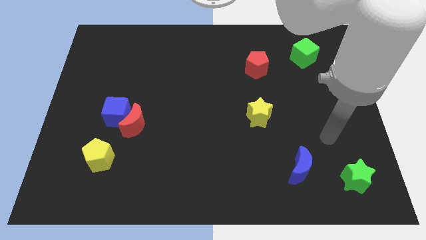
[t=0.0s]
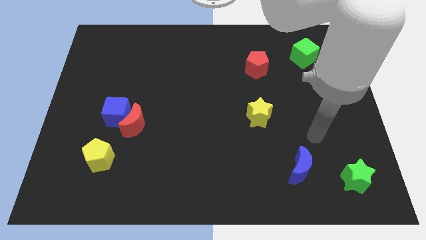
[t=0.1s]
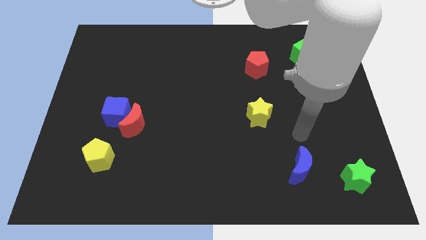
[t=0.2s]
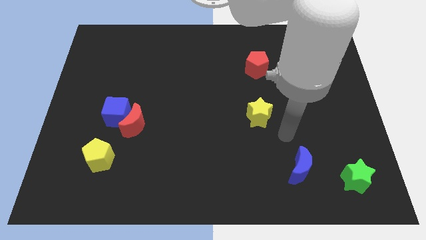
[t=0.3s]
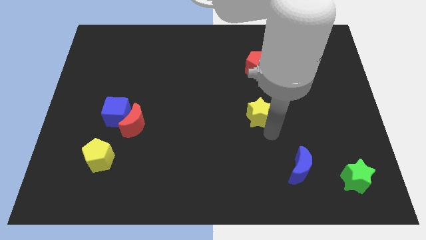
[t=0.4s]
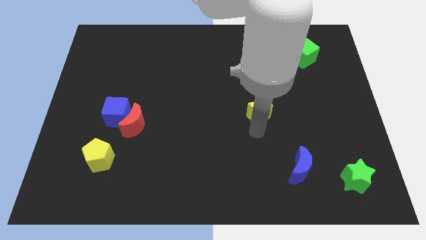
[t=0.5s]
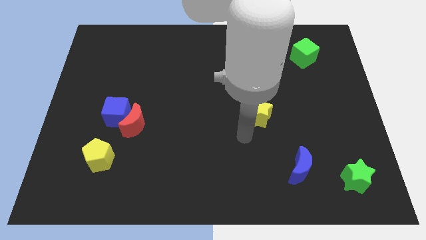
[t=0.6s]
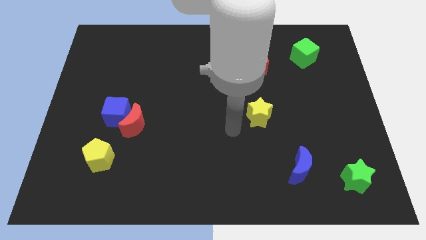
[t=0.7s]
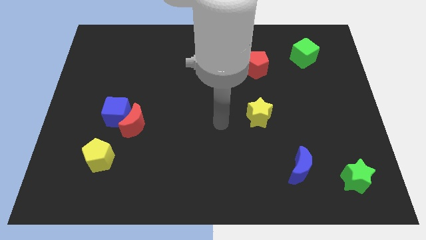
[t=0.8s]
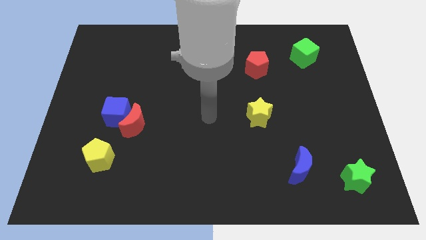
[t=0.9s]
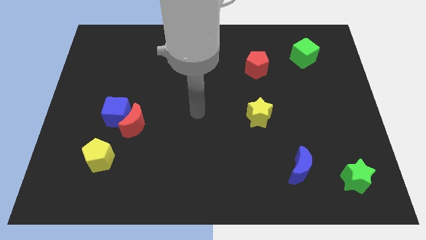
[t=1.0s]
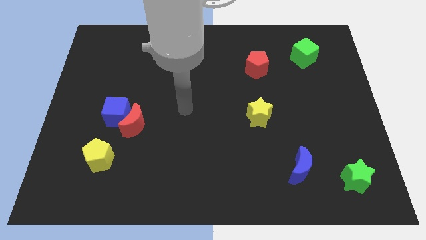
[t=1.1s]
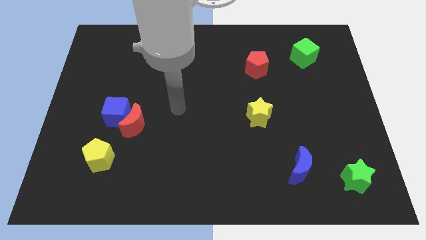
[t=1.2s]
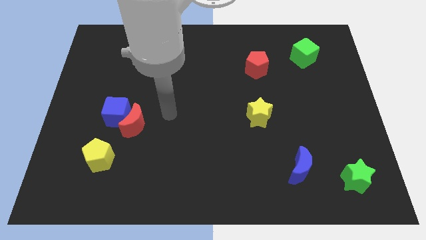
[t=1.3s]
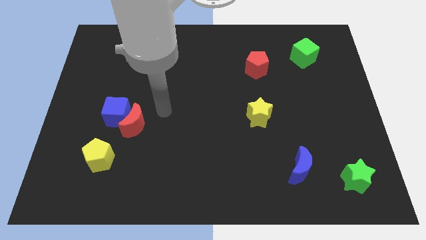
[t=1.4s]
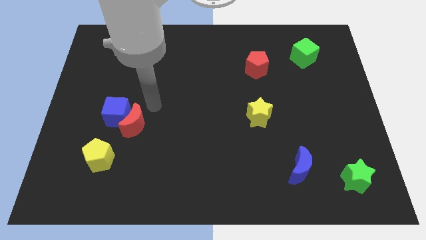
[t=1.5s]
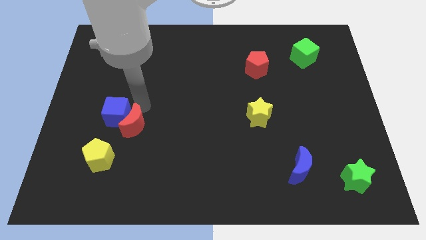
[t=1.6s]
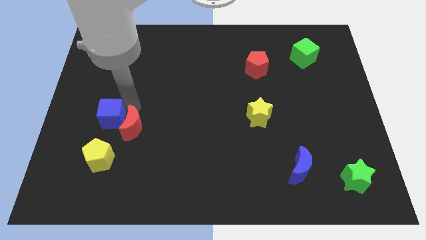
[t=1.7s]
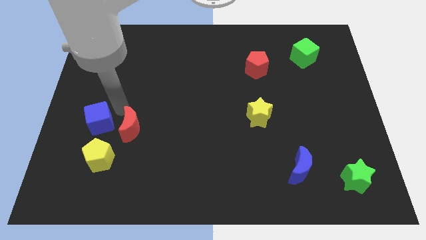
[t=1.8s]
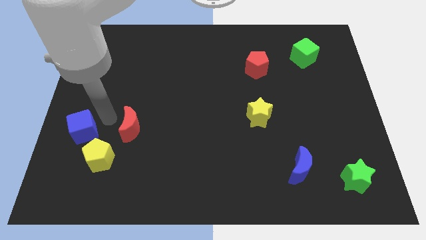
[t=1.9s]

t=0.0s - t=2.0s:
separate the red moon from the blue cube

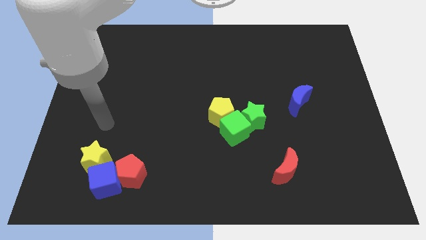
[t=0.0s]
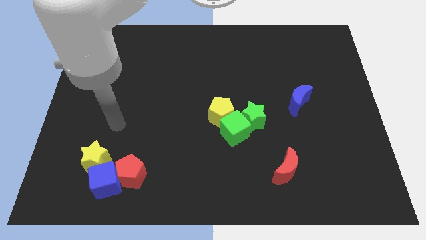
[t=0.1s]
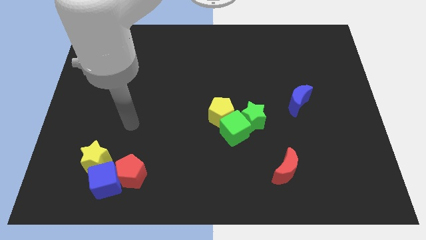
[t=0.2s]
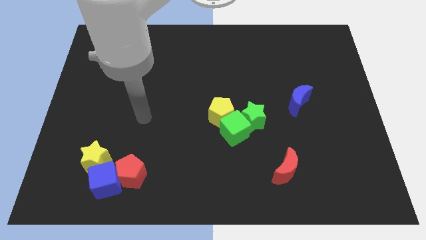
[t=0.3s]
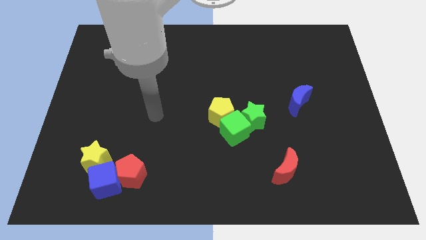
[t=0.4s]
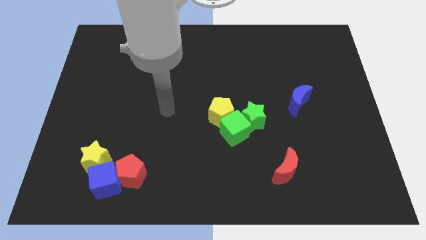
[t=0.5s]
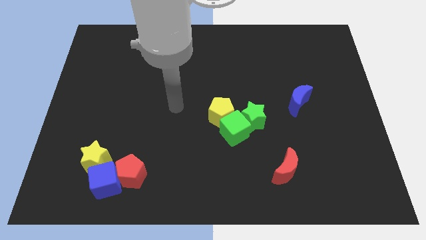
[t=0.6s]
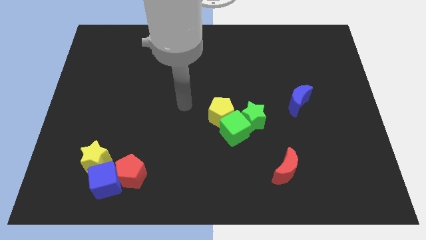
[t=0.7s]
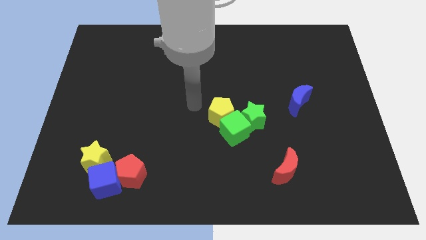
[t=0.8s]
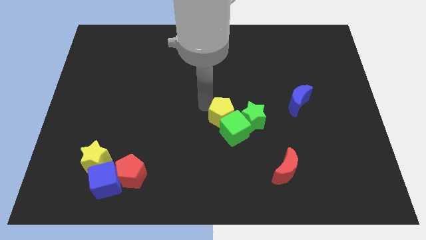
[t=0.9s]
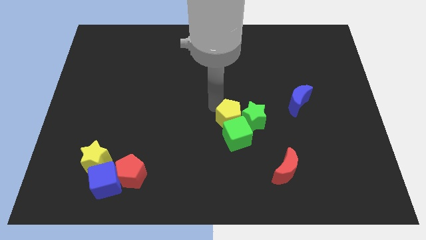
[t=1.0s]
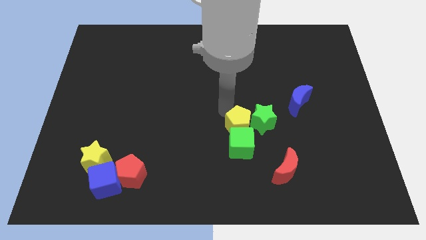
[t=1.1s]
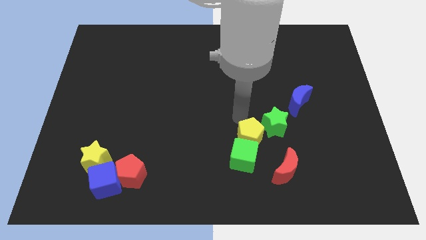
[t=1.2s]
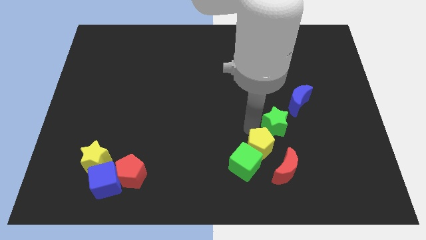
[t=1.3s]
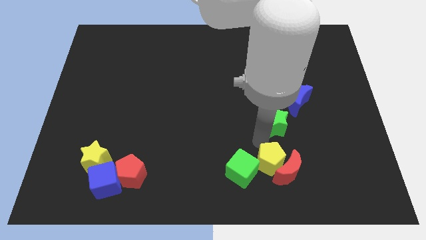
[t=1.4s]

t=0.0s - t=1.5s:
separate the green cube from the green star and yellow pentagon

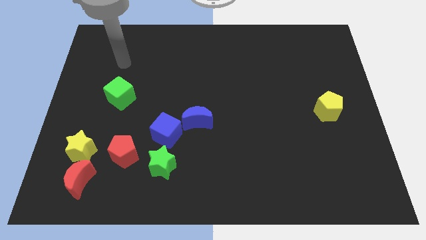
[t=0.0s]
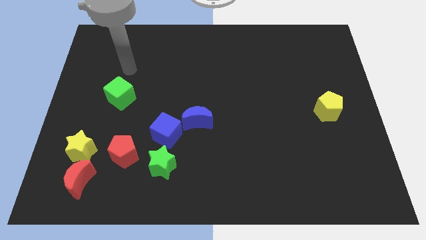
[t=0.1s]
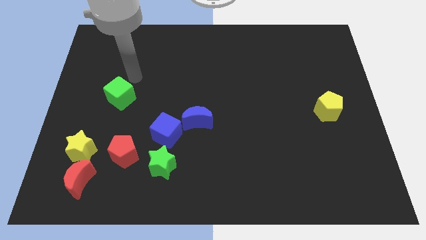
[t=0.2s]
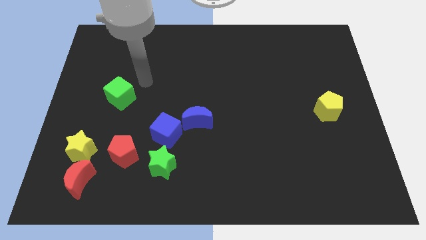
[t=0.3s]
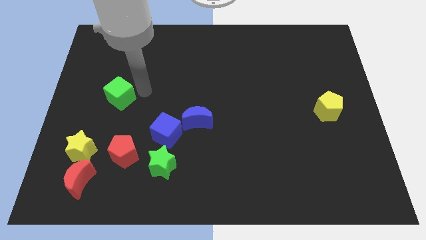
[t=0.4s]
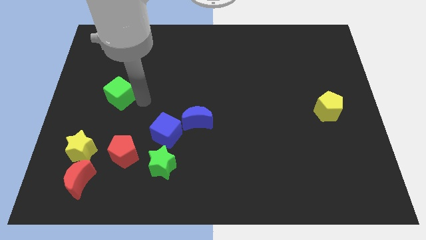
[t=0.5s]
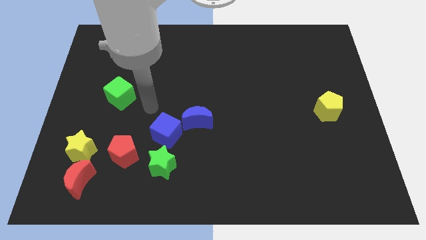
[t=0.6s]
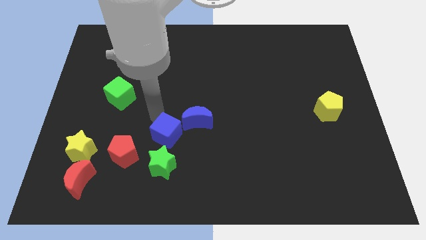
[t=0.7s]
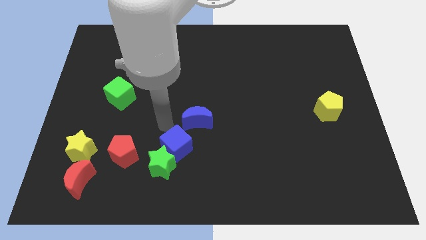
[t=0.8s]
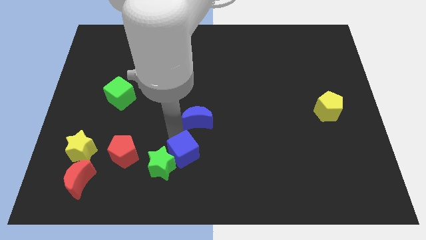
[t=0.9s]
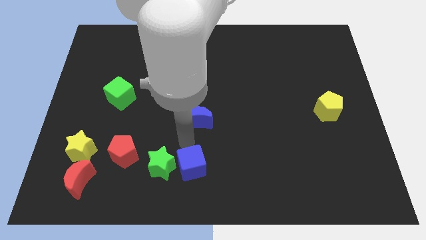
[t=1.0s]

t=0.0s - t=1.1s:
move the blue moon away from the blue cube

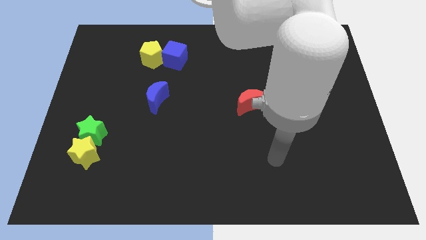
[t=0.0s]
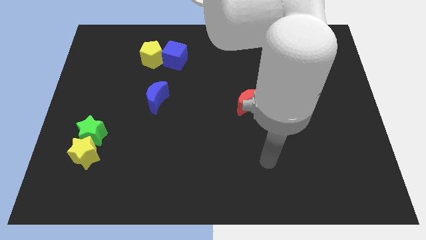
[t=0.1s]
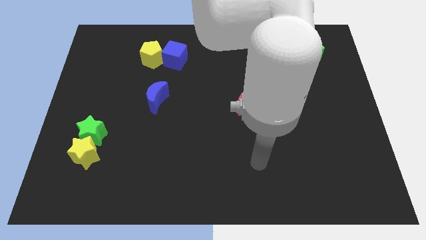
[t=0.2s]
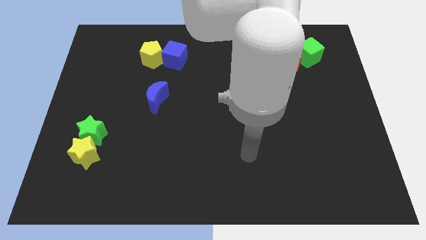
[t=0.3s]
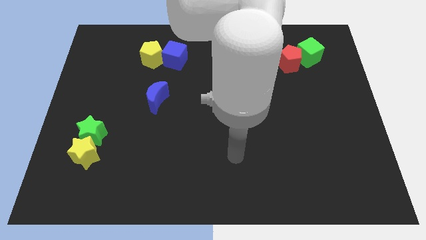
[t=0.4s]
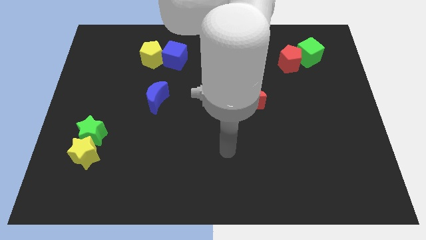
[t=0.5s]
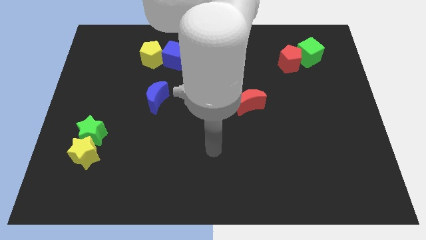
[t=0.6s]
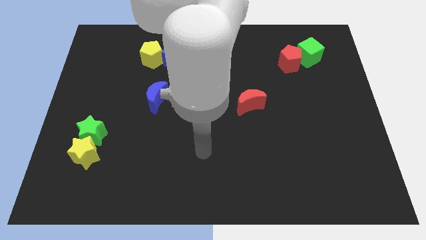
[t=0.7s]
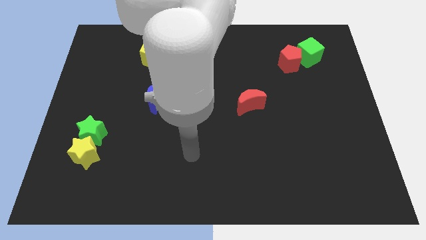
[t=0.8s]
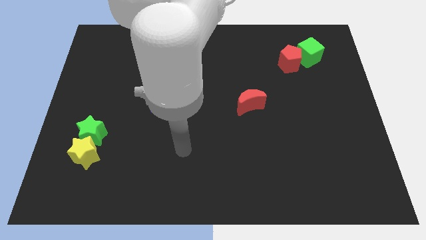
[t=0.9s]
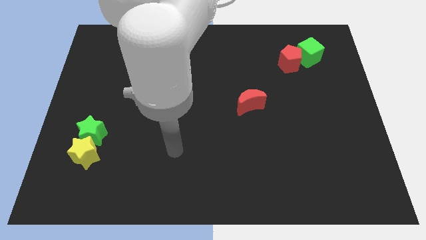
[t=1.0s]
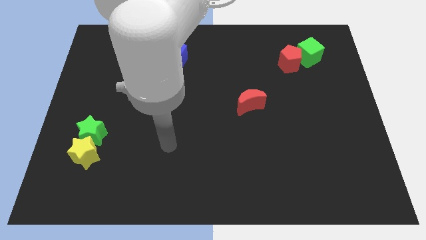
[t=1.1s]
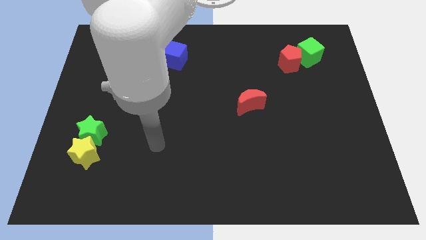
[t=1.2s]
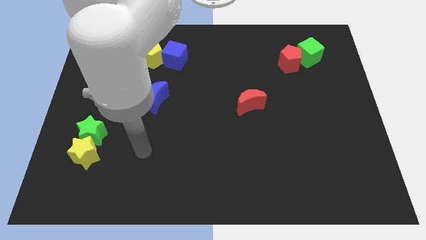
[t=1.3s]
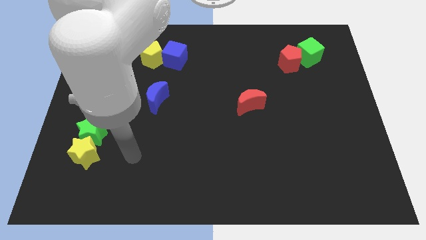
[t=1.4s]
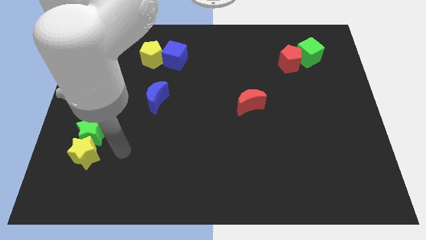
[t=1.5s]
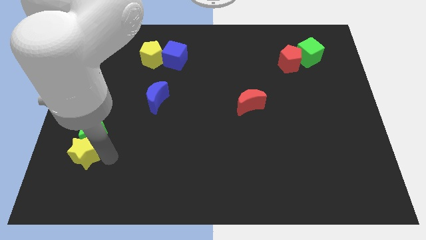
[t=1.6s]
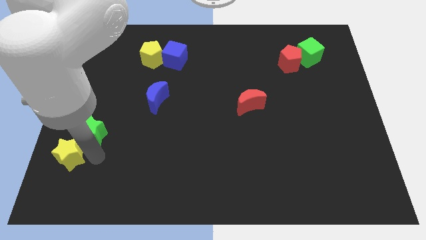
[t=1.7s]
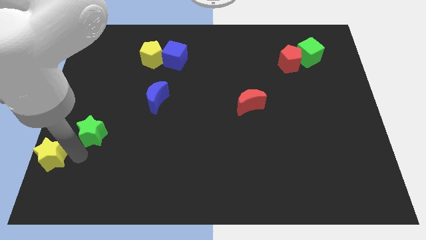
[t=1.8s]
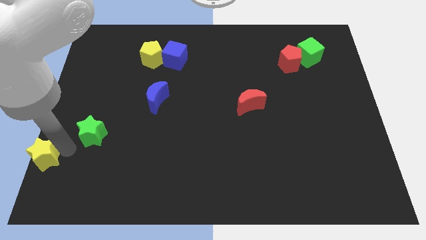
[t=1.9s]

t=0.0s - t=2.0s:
pull the green star apart from the yellow star

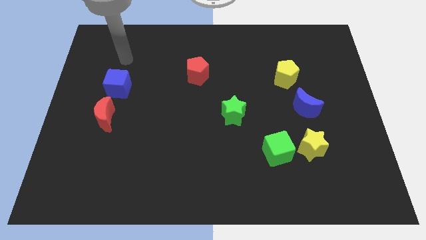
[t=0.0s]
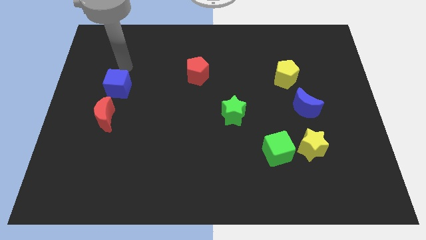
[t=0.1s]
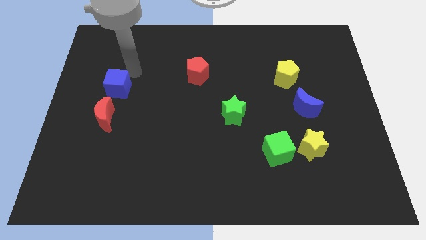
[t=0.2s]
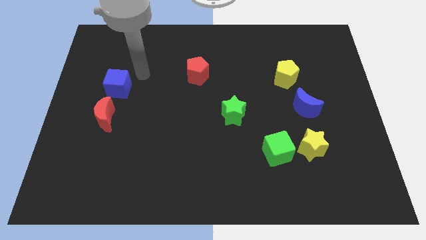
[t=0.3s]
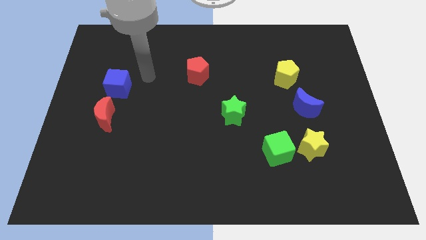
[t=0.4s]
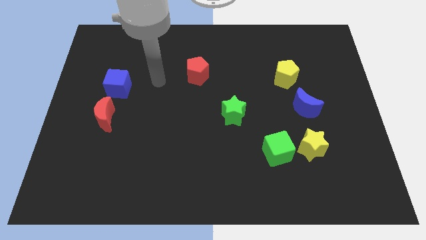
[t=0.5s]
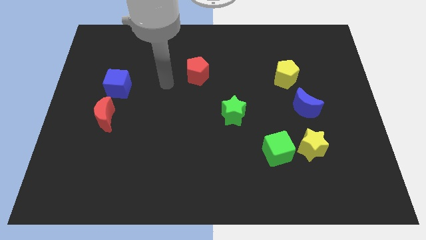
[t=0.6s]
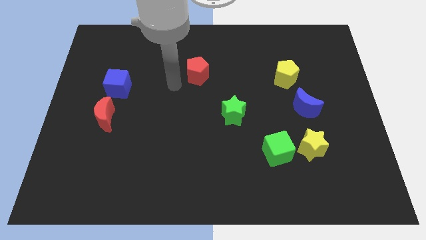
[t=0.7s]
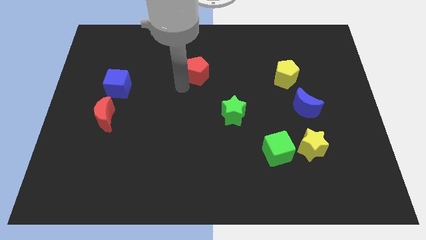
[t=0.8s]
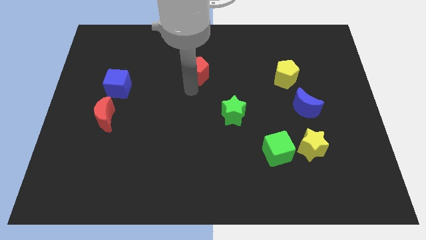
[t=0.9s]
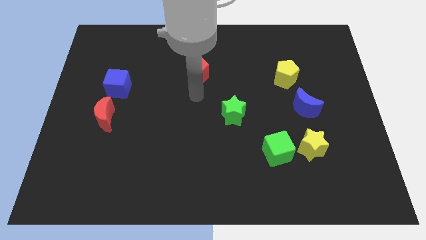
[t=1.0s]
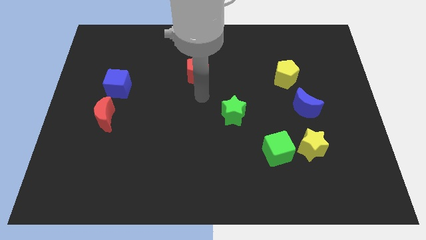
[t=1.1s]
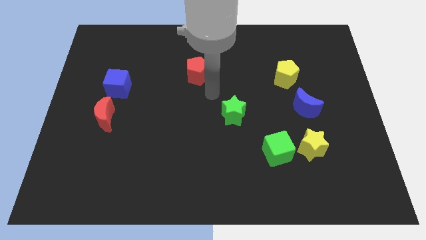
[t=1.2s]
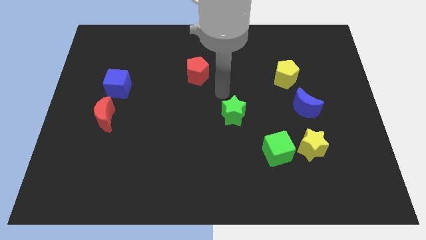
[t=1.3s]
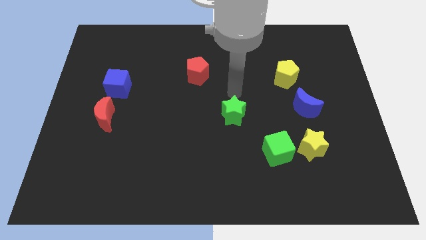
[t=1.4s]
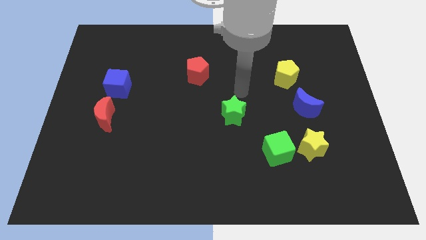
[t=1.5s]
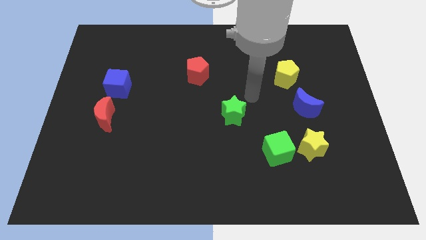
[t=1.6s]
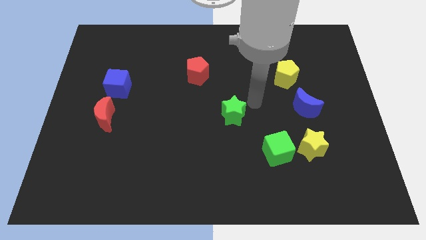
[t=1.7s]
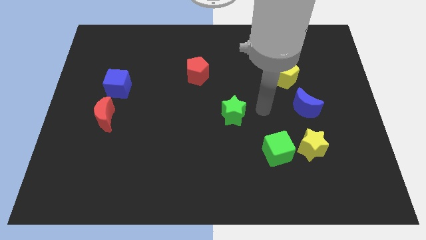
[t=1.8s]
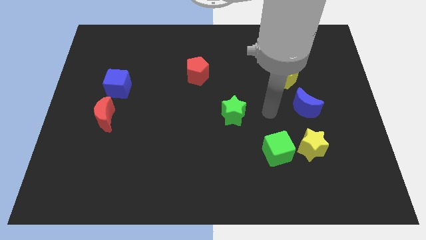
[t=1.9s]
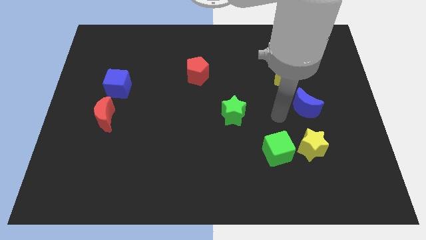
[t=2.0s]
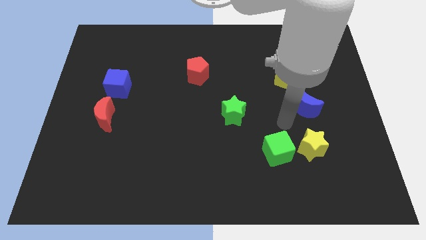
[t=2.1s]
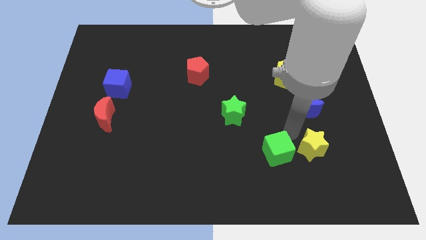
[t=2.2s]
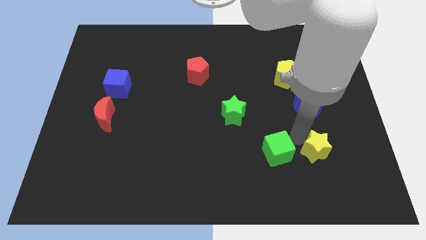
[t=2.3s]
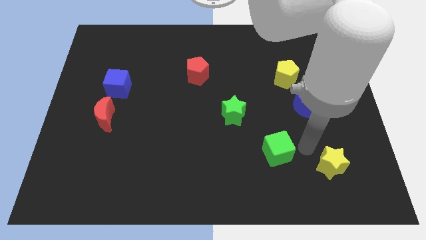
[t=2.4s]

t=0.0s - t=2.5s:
move the green cube away from the yellow star

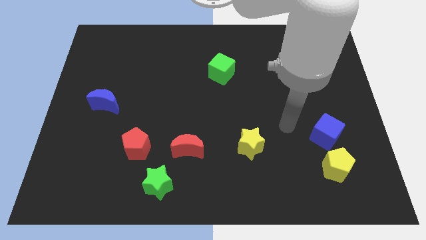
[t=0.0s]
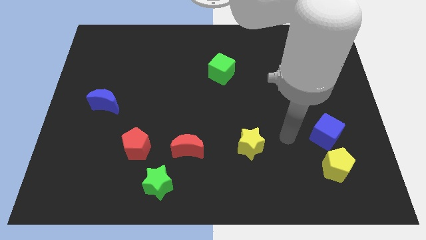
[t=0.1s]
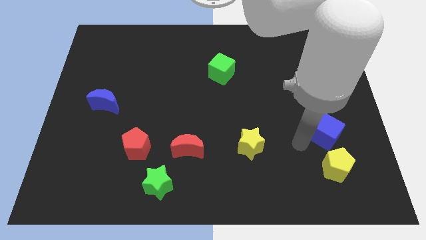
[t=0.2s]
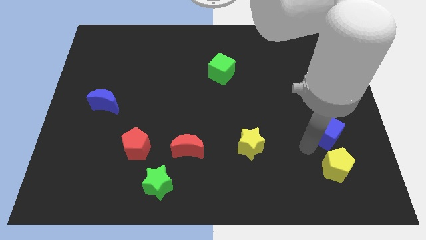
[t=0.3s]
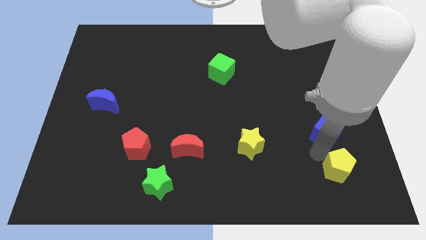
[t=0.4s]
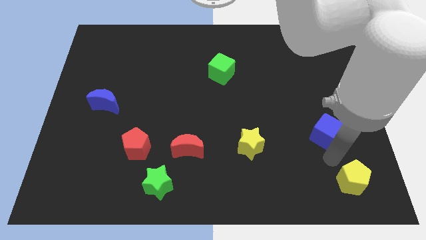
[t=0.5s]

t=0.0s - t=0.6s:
pull the blue cube apart from the yellow pentagon
